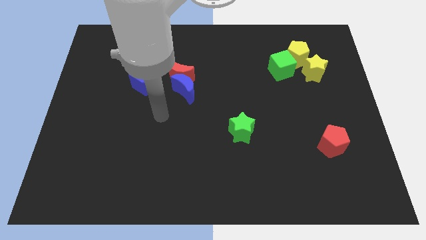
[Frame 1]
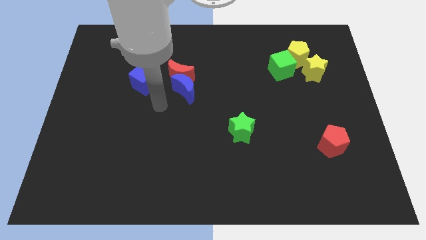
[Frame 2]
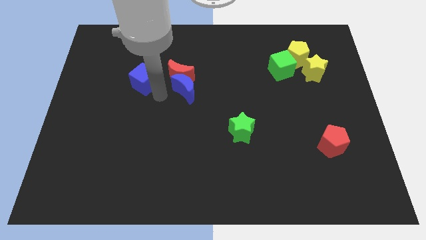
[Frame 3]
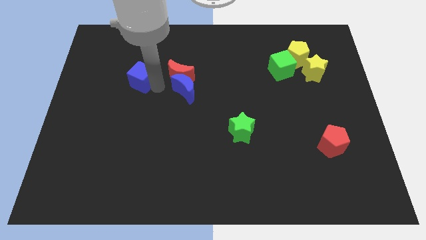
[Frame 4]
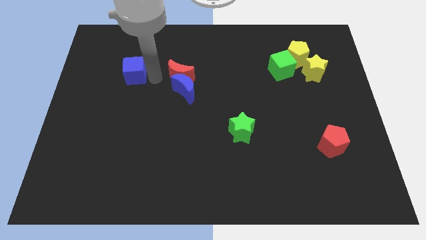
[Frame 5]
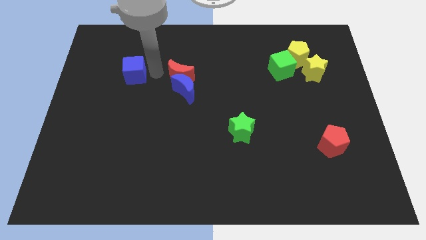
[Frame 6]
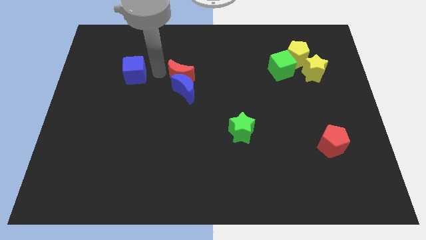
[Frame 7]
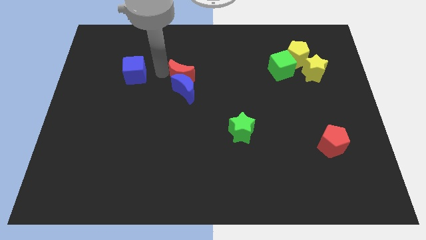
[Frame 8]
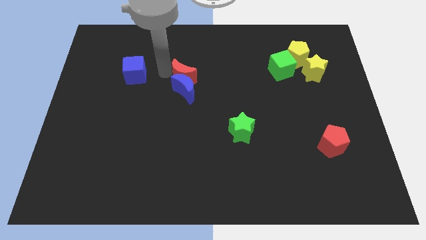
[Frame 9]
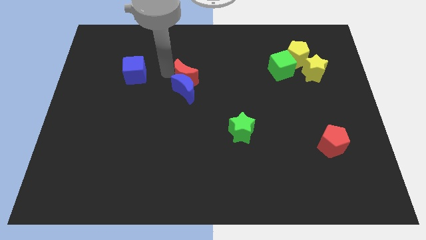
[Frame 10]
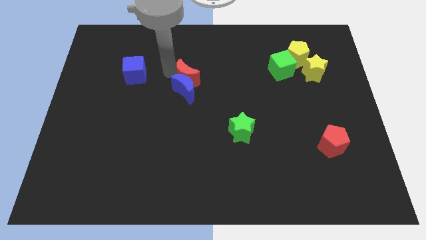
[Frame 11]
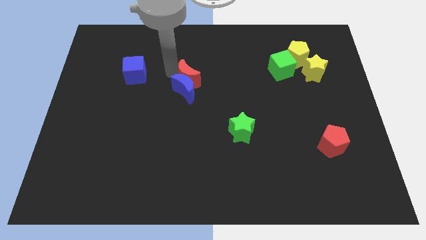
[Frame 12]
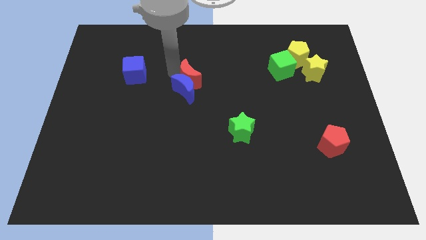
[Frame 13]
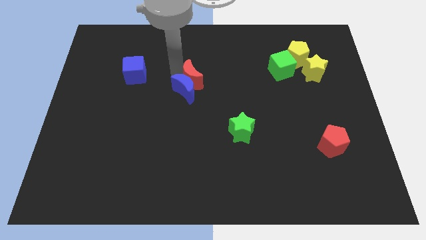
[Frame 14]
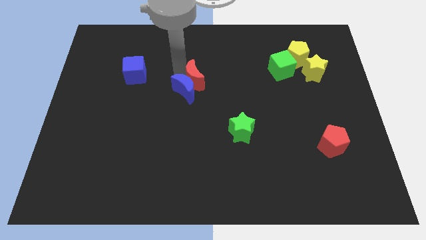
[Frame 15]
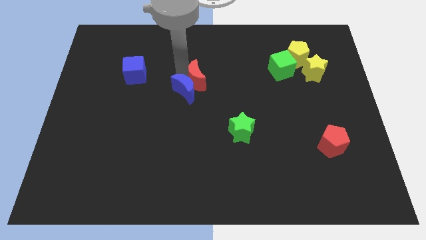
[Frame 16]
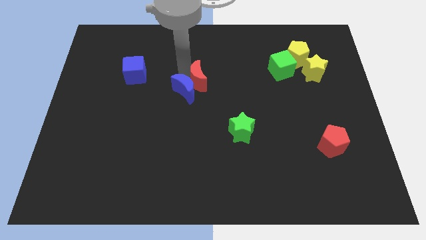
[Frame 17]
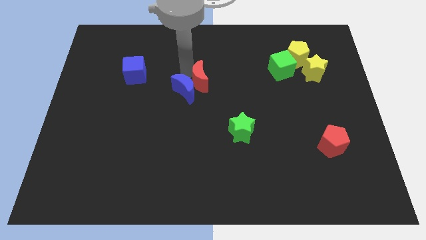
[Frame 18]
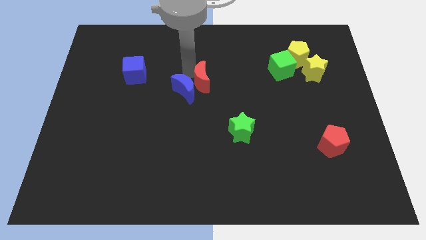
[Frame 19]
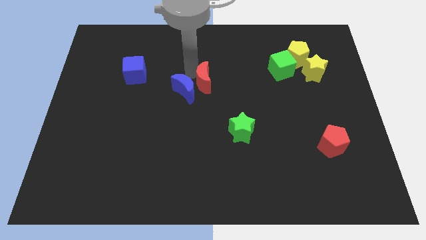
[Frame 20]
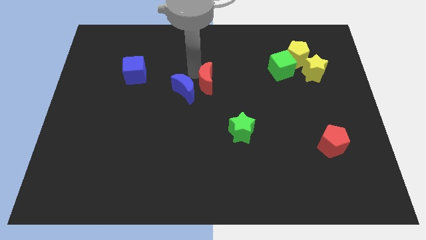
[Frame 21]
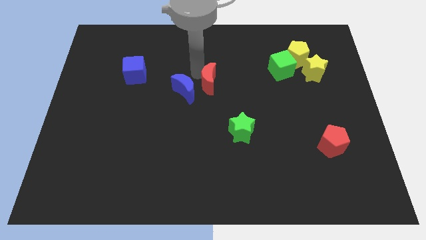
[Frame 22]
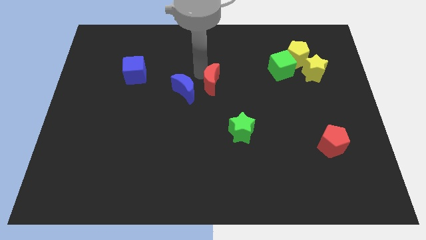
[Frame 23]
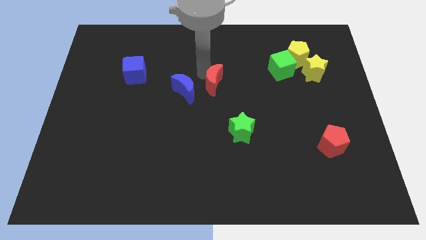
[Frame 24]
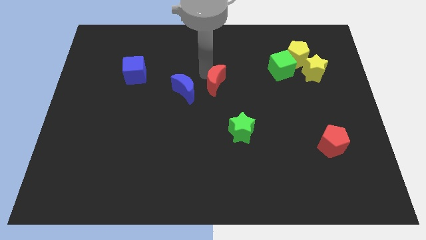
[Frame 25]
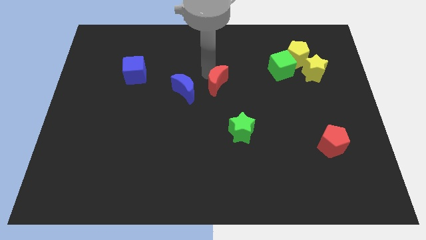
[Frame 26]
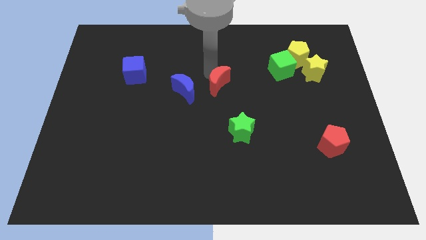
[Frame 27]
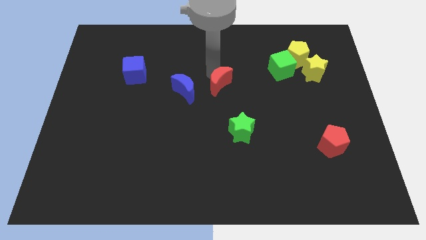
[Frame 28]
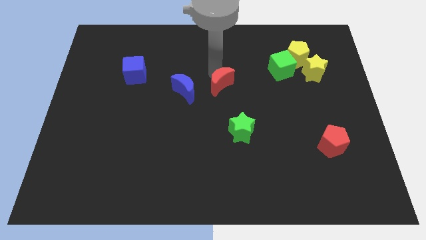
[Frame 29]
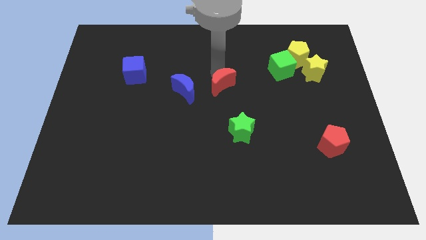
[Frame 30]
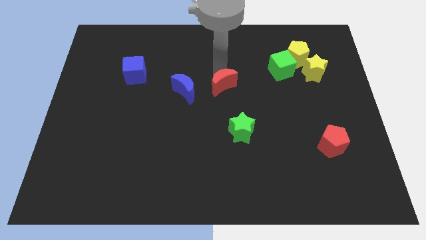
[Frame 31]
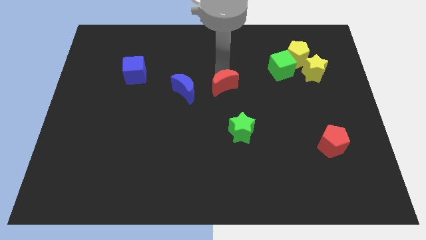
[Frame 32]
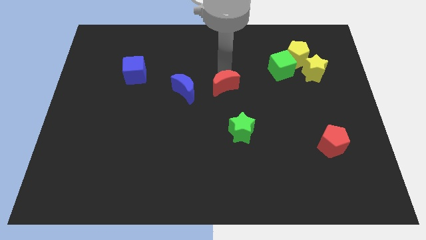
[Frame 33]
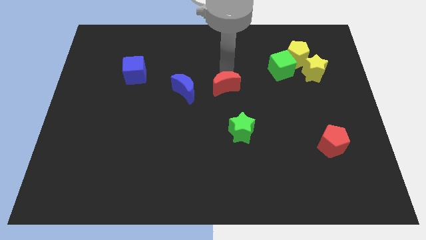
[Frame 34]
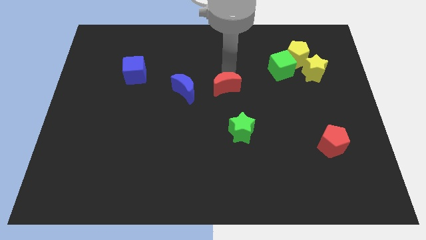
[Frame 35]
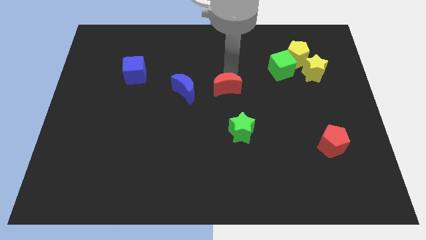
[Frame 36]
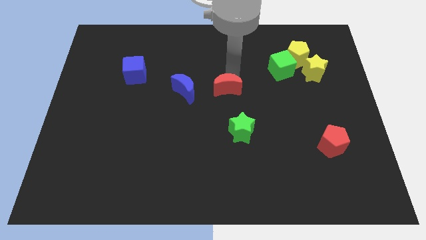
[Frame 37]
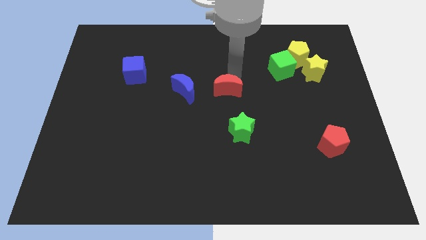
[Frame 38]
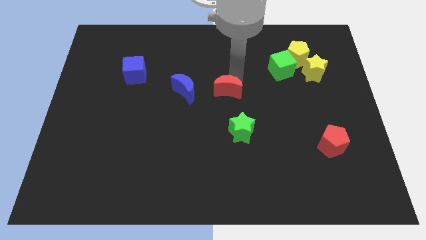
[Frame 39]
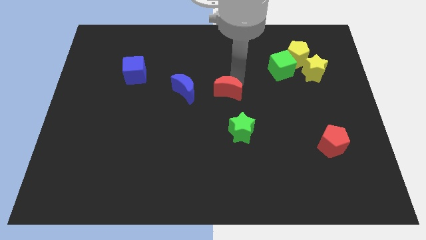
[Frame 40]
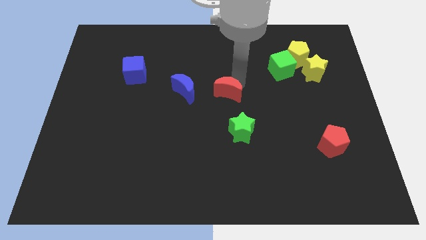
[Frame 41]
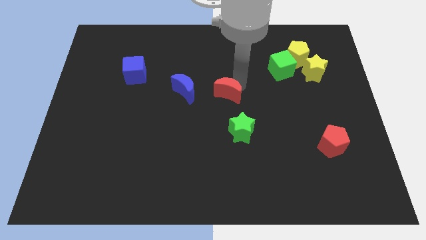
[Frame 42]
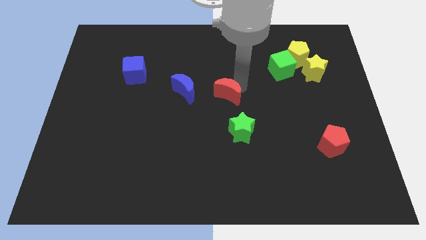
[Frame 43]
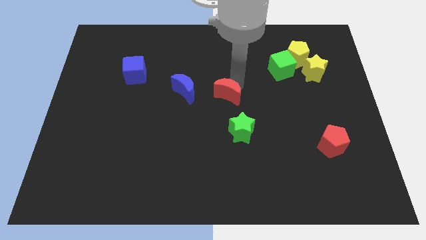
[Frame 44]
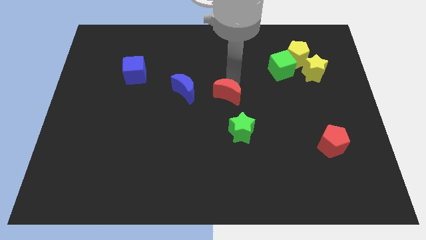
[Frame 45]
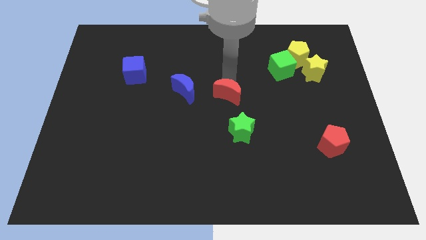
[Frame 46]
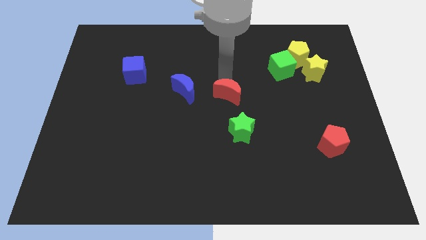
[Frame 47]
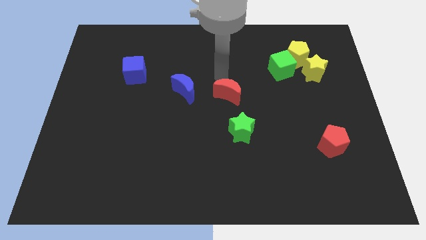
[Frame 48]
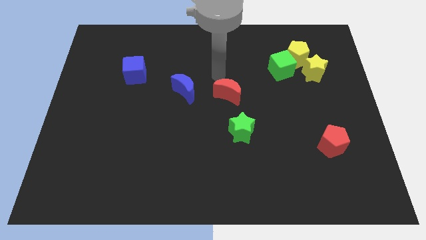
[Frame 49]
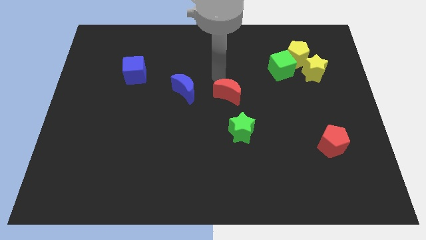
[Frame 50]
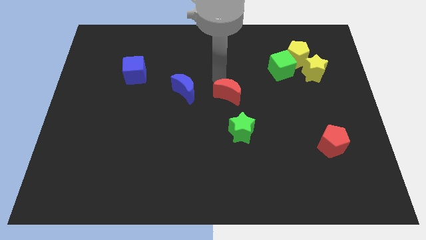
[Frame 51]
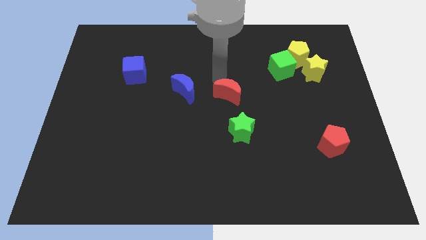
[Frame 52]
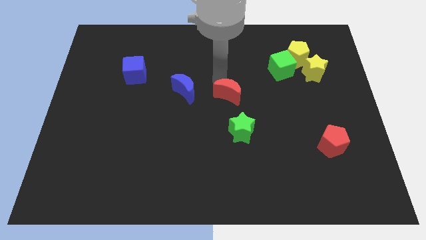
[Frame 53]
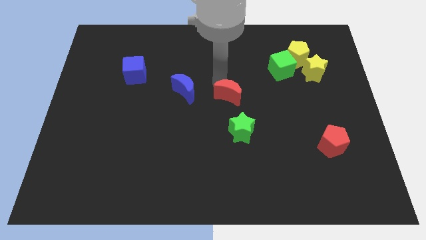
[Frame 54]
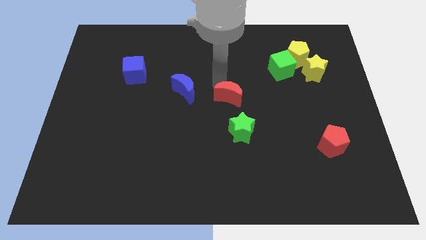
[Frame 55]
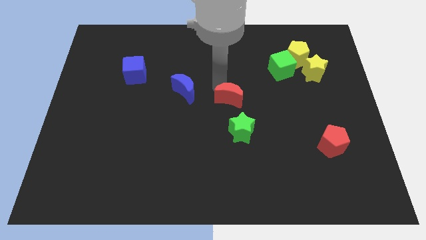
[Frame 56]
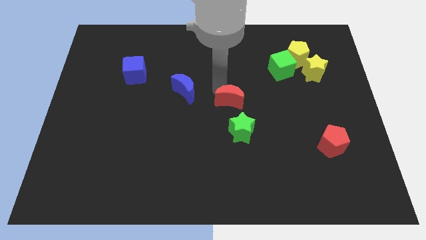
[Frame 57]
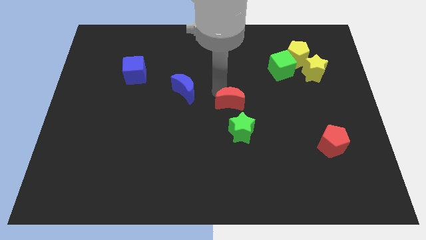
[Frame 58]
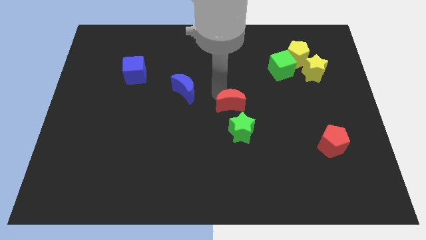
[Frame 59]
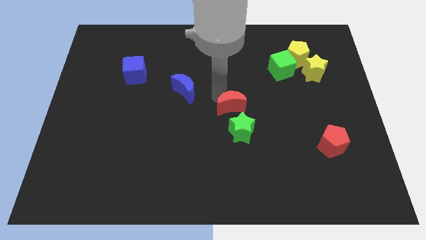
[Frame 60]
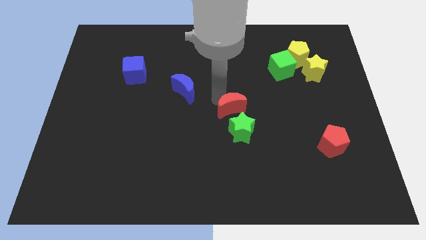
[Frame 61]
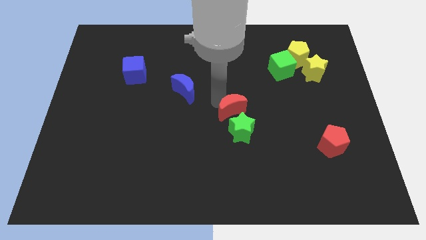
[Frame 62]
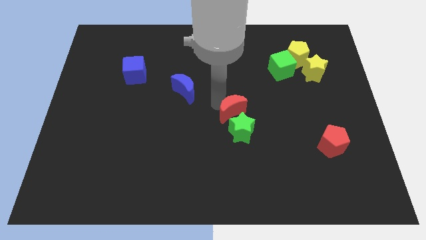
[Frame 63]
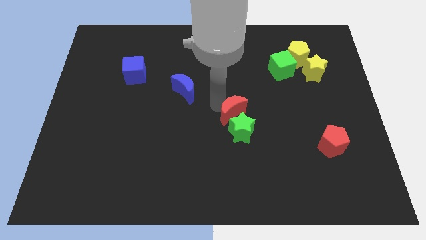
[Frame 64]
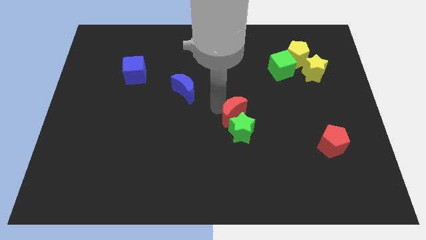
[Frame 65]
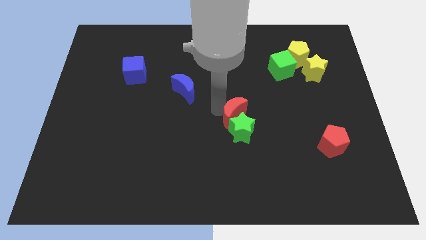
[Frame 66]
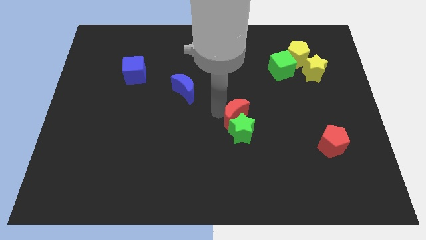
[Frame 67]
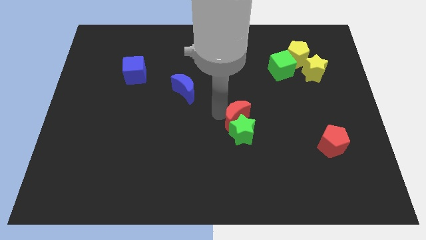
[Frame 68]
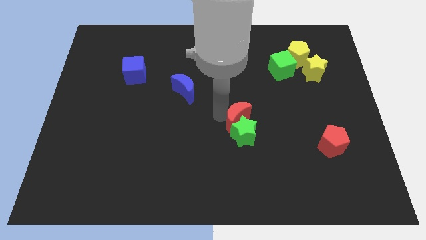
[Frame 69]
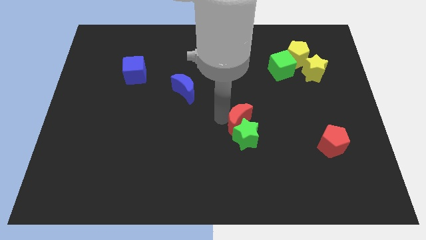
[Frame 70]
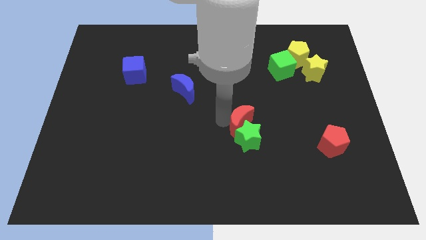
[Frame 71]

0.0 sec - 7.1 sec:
move the red moon down and to the right

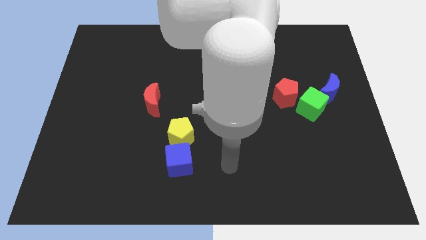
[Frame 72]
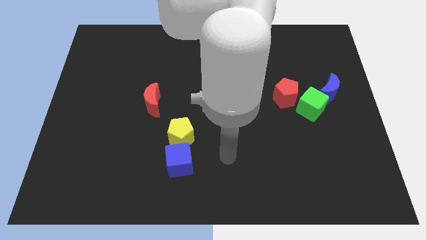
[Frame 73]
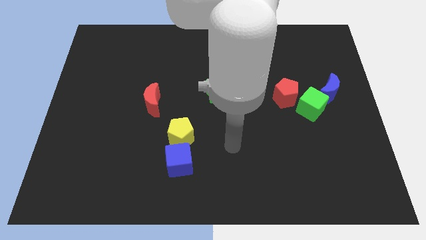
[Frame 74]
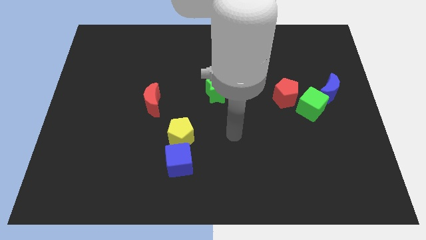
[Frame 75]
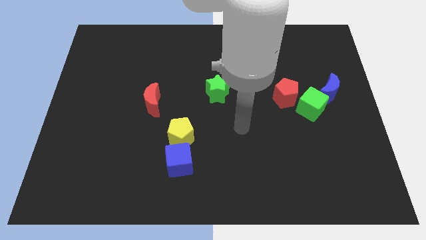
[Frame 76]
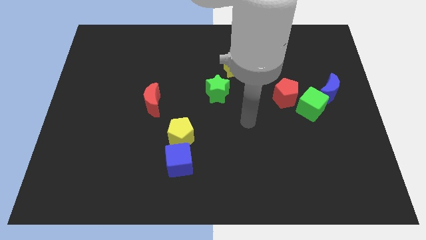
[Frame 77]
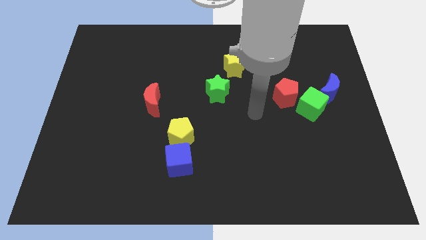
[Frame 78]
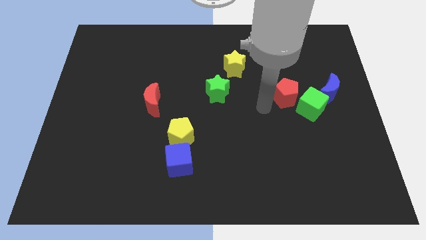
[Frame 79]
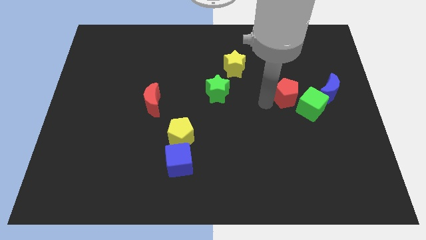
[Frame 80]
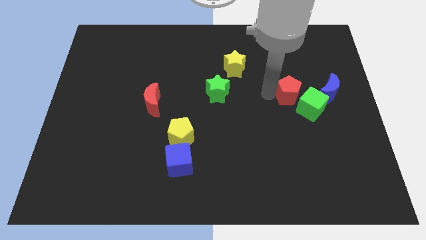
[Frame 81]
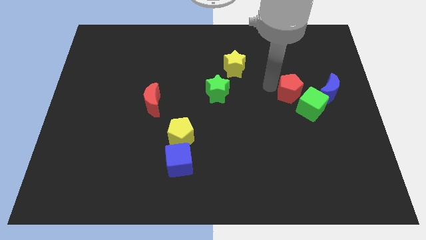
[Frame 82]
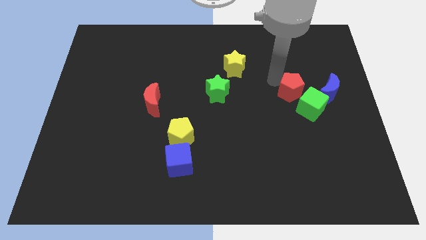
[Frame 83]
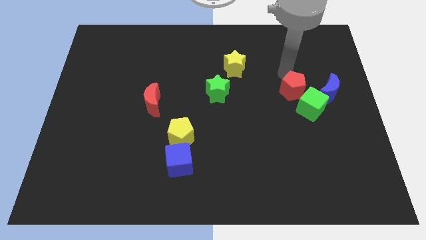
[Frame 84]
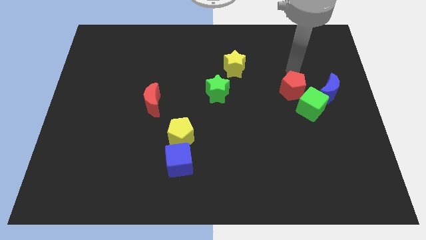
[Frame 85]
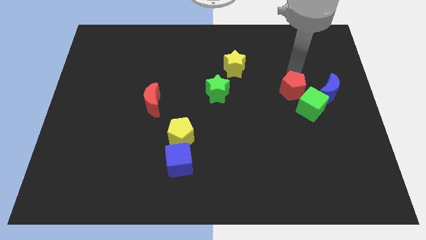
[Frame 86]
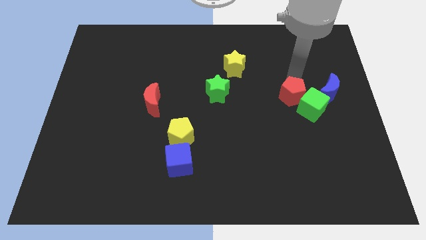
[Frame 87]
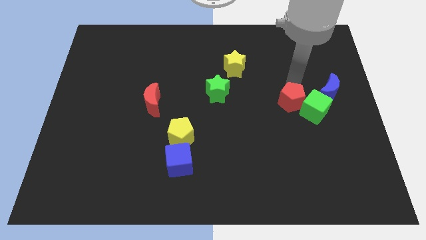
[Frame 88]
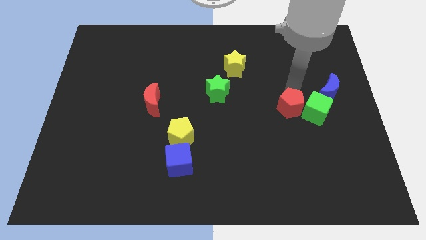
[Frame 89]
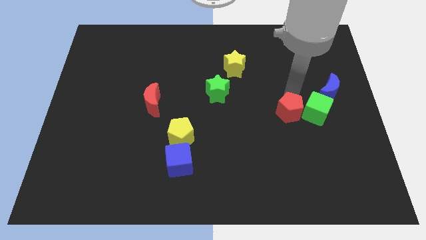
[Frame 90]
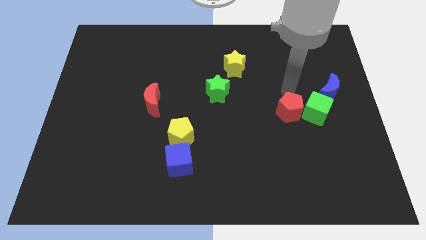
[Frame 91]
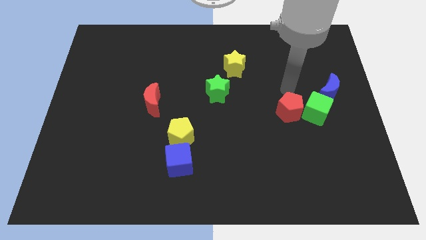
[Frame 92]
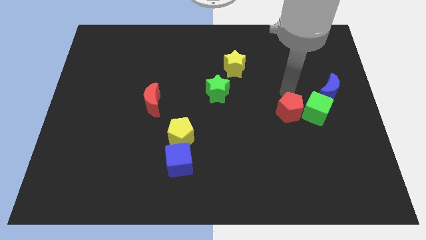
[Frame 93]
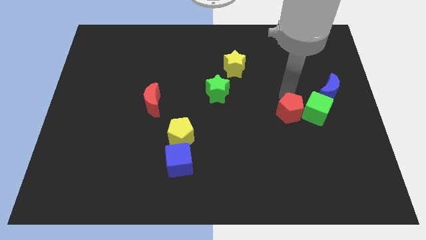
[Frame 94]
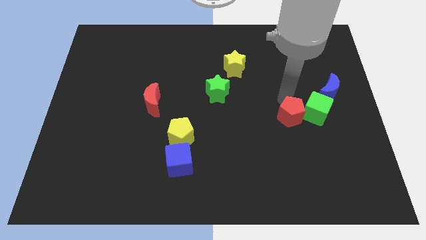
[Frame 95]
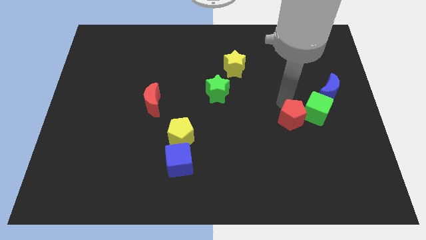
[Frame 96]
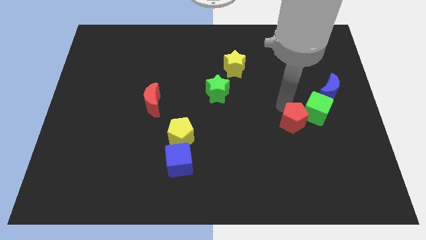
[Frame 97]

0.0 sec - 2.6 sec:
push the red pentagon down a bit
